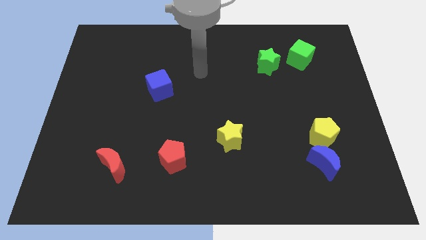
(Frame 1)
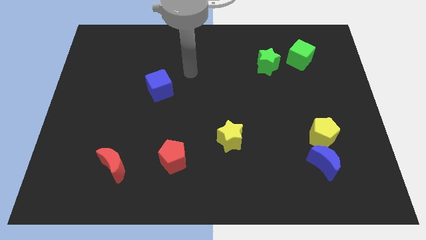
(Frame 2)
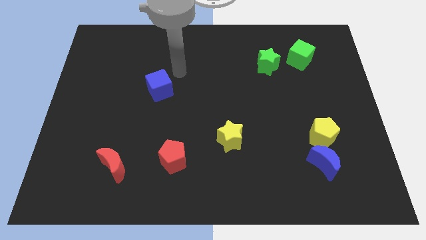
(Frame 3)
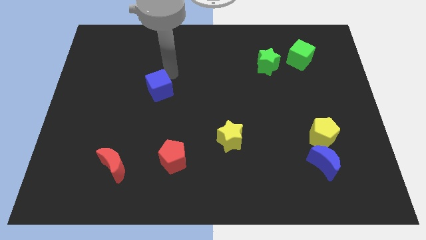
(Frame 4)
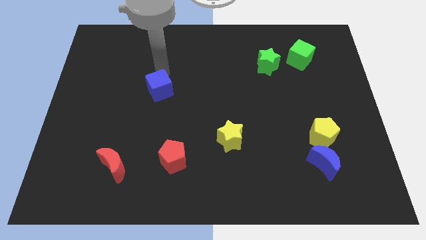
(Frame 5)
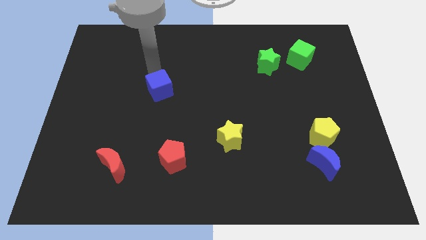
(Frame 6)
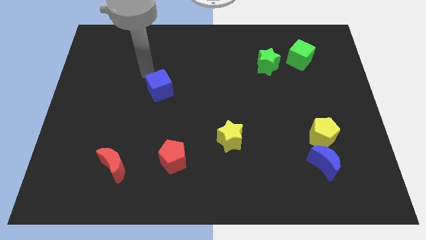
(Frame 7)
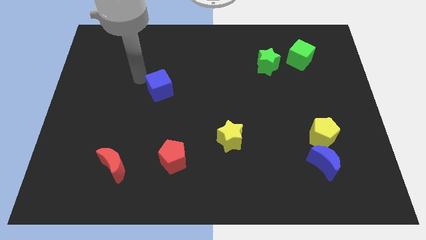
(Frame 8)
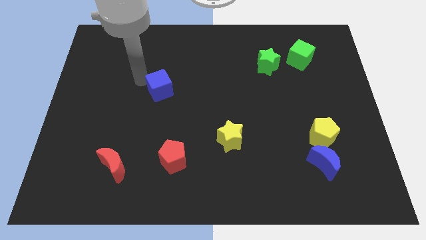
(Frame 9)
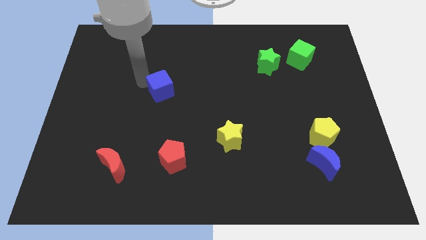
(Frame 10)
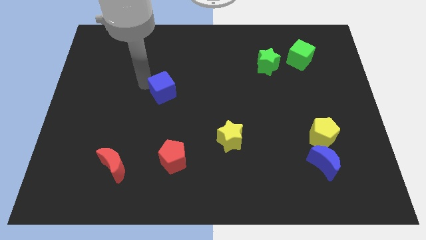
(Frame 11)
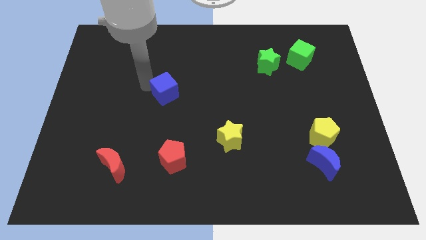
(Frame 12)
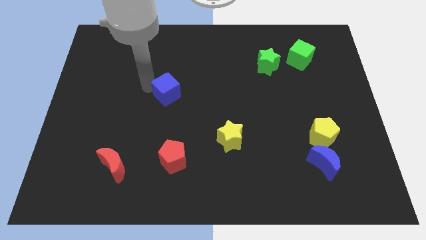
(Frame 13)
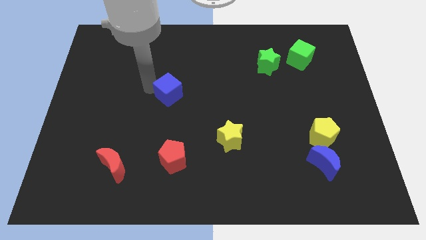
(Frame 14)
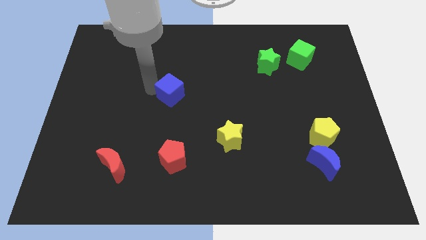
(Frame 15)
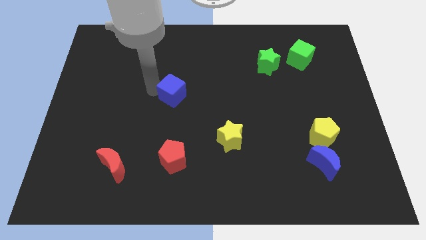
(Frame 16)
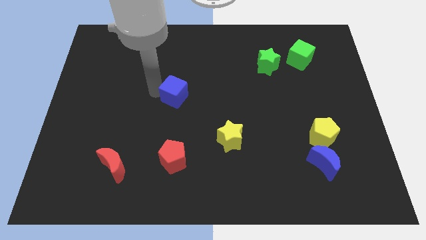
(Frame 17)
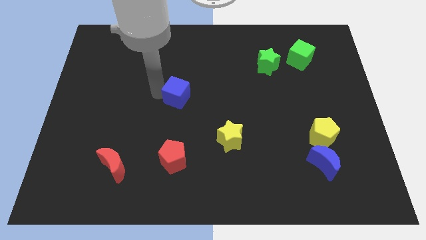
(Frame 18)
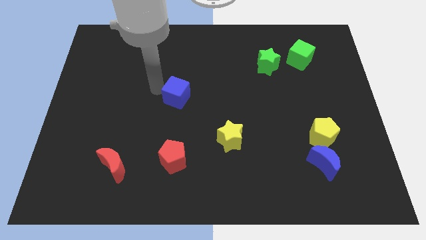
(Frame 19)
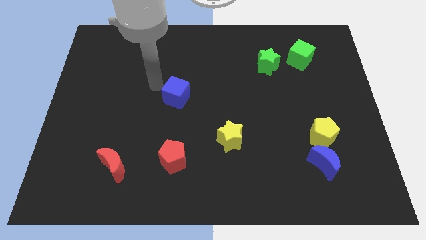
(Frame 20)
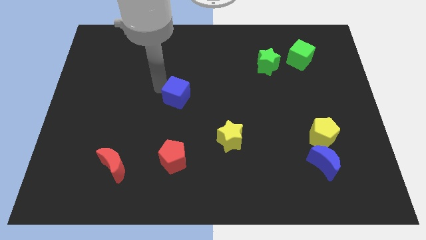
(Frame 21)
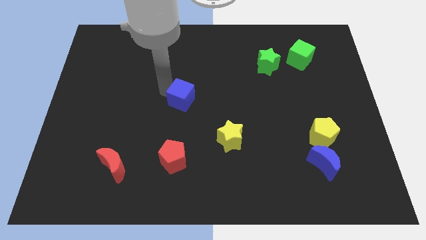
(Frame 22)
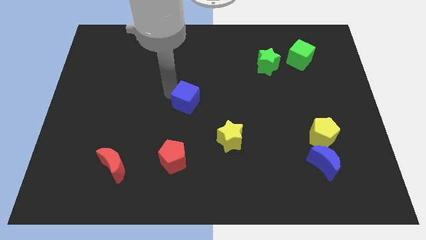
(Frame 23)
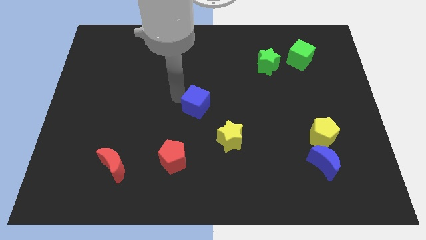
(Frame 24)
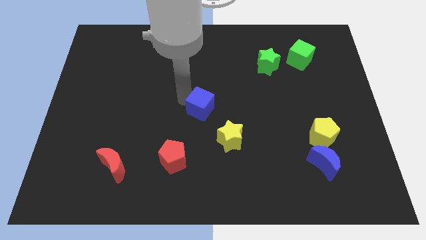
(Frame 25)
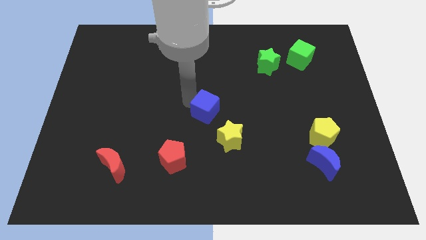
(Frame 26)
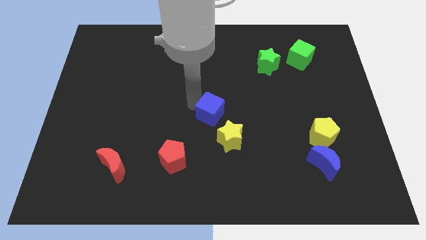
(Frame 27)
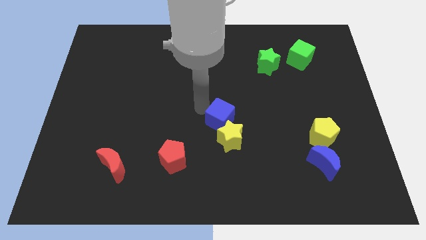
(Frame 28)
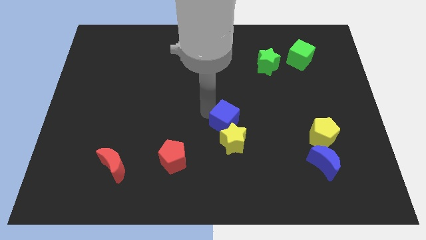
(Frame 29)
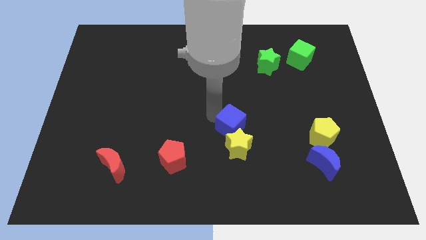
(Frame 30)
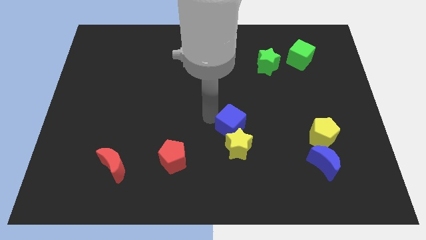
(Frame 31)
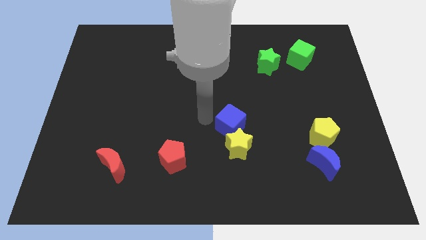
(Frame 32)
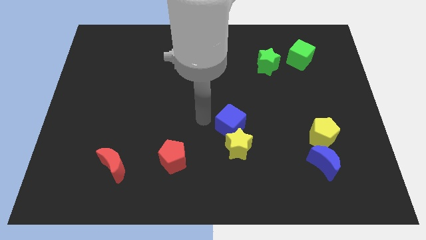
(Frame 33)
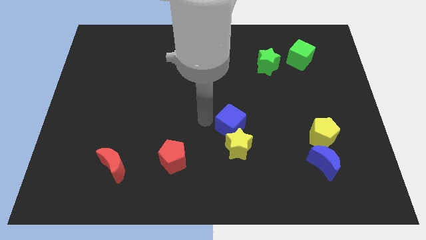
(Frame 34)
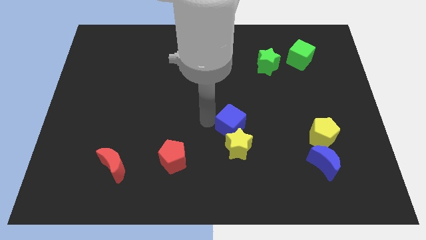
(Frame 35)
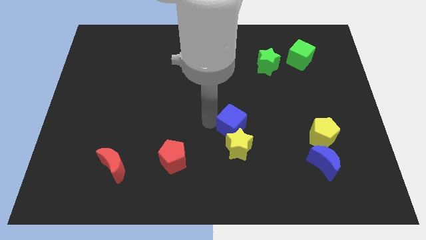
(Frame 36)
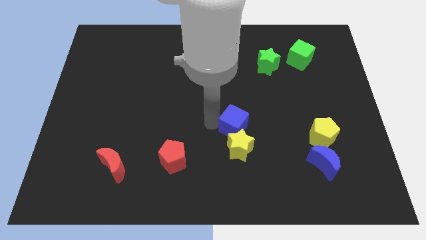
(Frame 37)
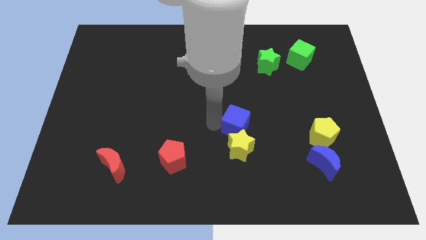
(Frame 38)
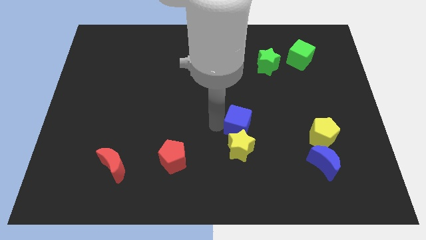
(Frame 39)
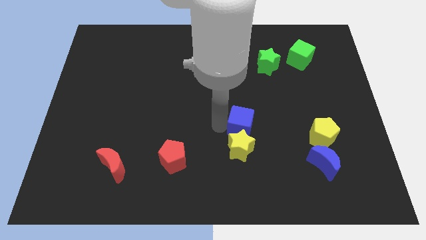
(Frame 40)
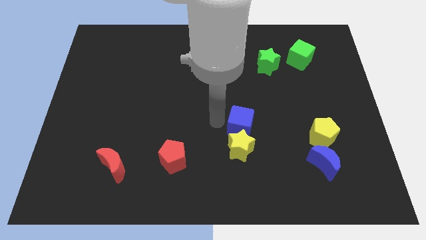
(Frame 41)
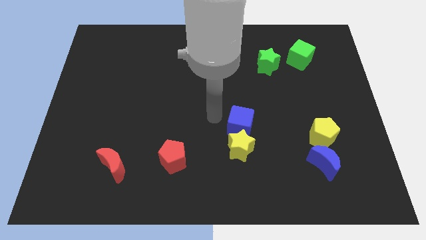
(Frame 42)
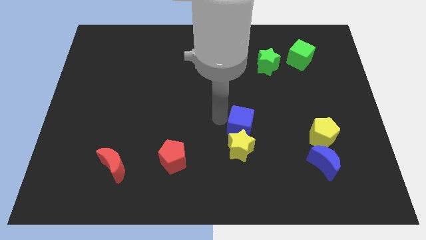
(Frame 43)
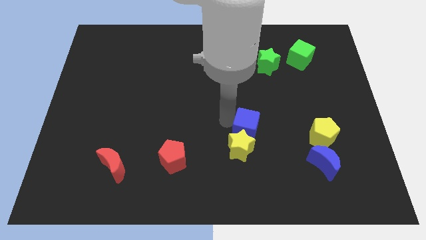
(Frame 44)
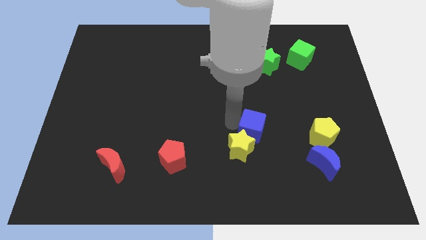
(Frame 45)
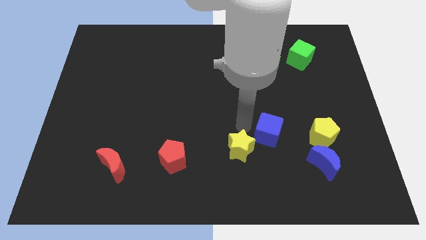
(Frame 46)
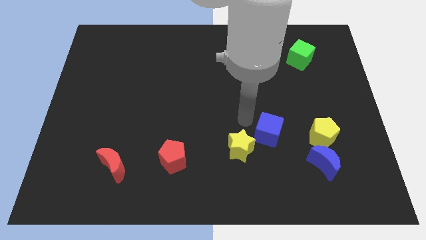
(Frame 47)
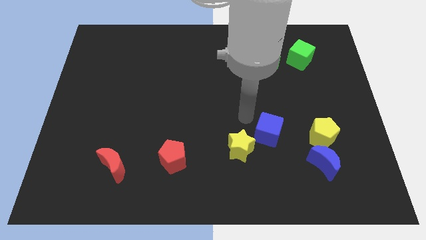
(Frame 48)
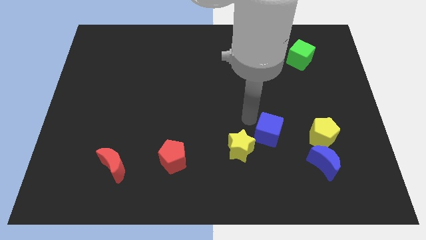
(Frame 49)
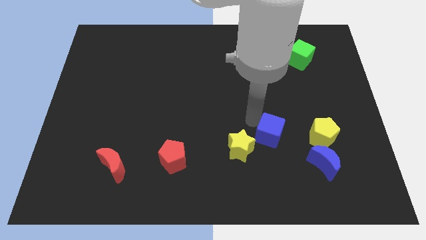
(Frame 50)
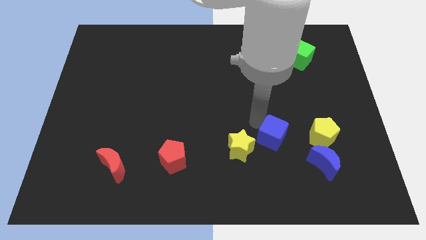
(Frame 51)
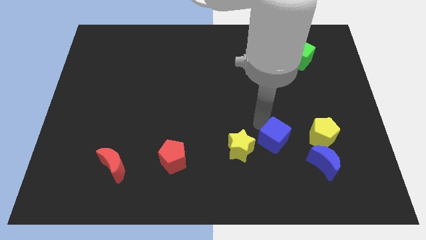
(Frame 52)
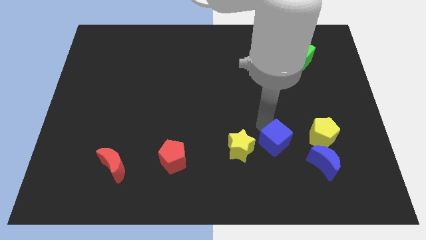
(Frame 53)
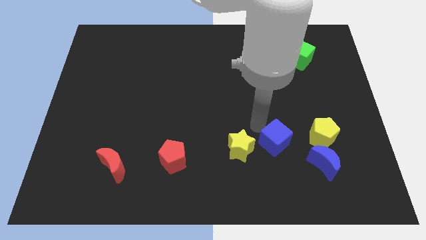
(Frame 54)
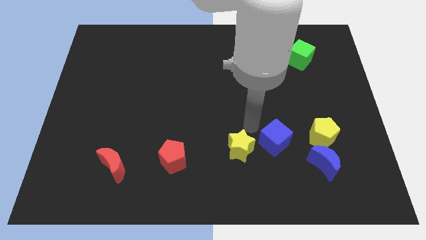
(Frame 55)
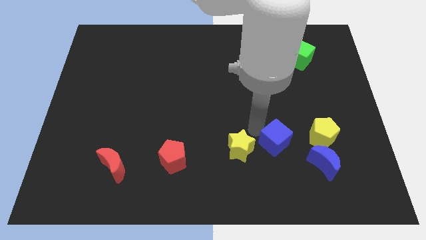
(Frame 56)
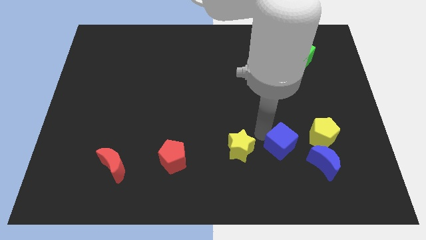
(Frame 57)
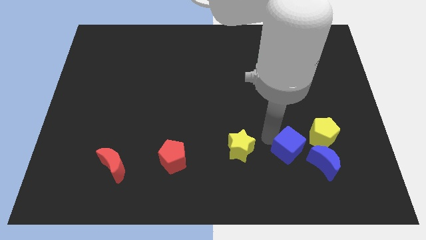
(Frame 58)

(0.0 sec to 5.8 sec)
slide the blue cube diagonally down and to the left of the yellow pentagon

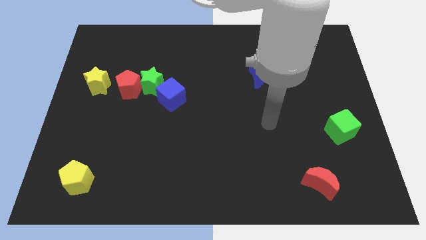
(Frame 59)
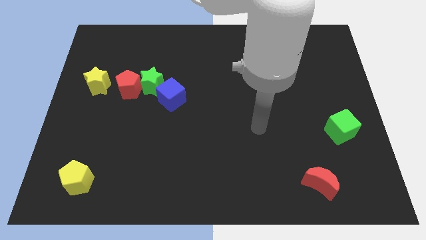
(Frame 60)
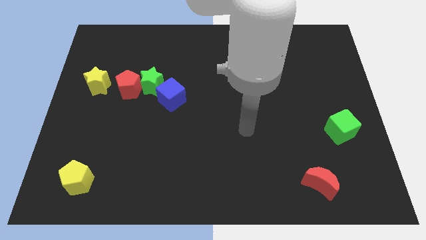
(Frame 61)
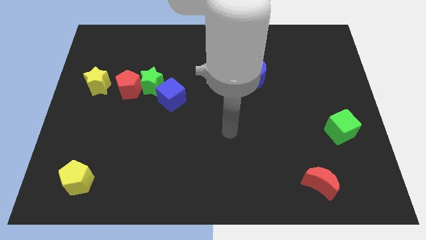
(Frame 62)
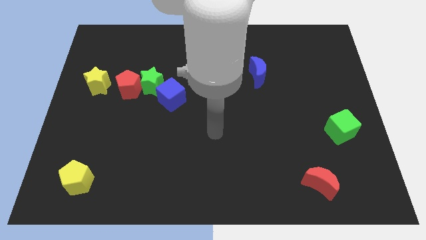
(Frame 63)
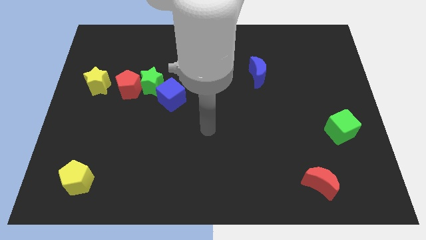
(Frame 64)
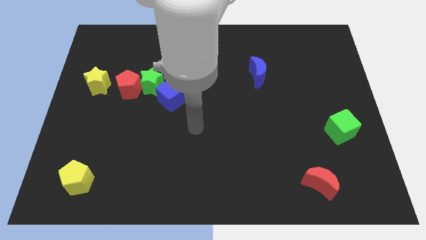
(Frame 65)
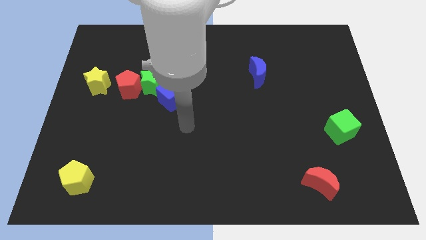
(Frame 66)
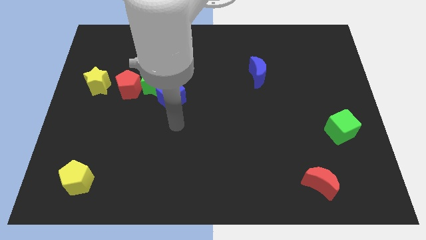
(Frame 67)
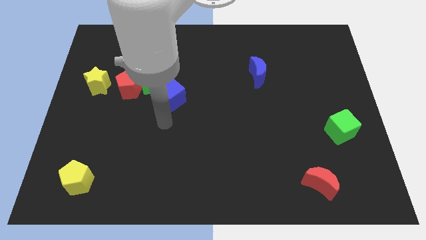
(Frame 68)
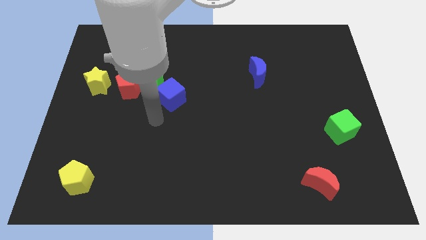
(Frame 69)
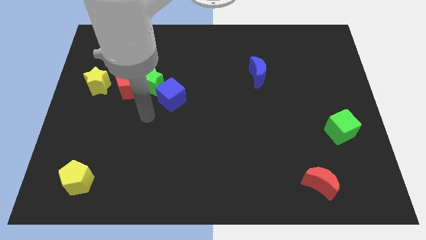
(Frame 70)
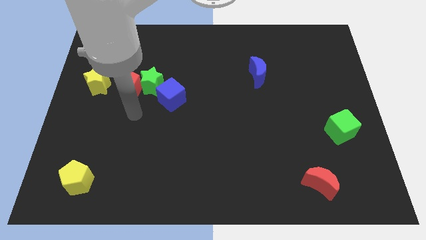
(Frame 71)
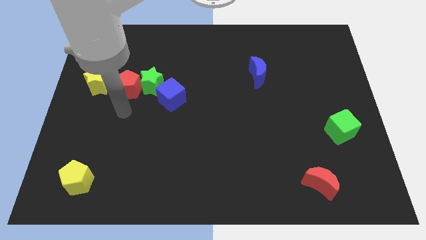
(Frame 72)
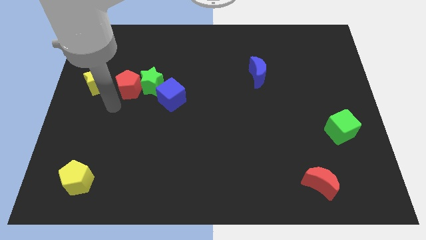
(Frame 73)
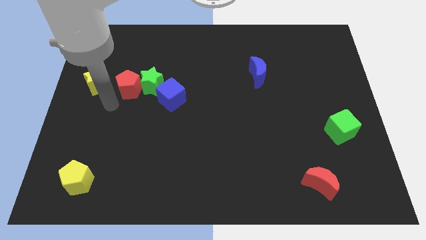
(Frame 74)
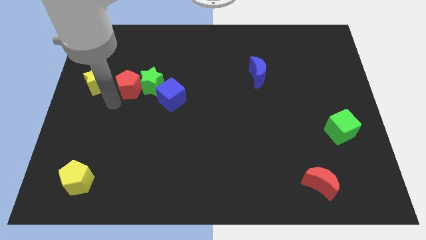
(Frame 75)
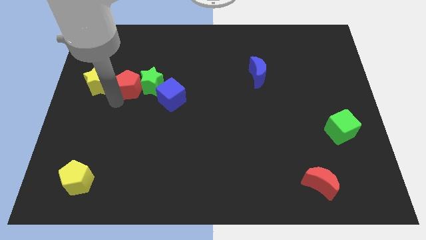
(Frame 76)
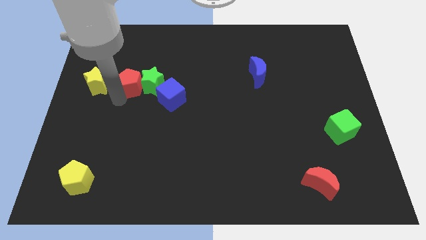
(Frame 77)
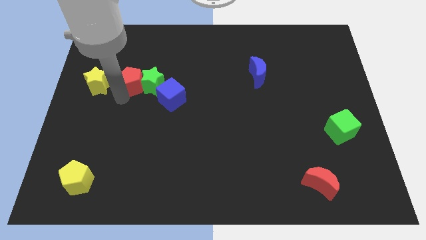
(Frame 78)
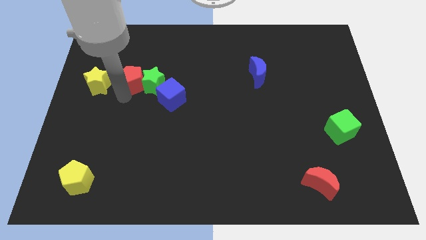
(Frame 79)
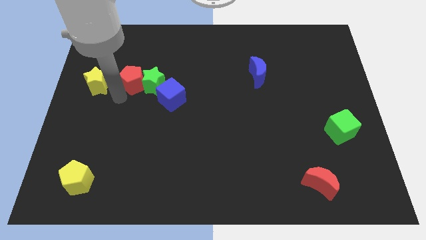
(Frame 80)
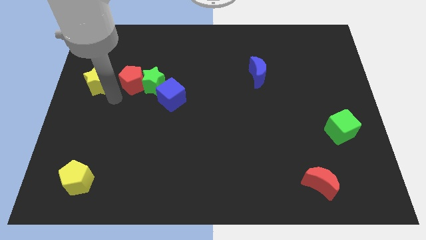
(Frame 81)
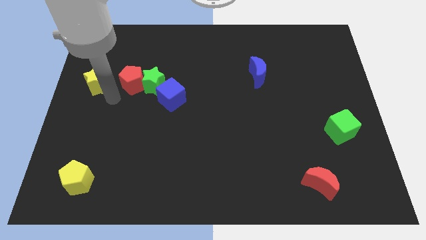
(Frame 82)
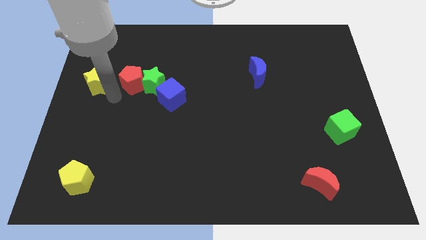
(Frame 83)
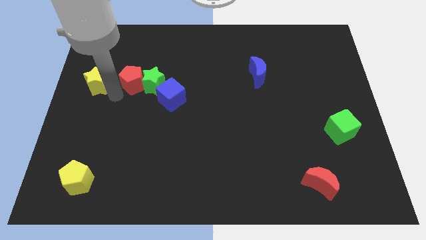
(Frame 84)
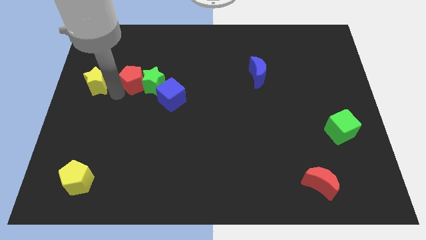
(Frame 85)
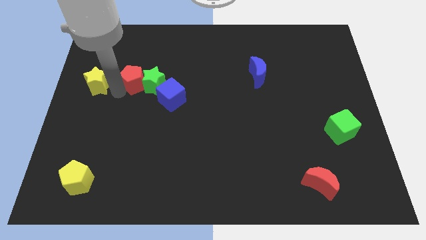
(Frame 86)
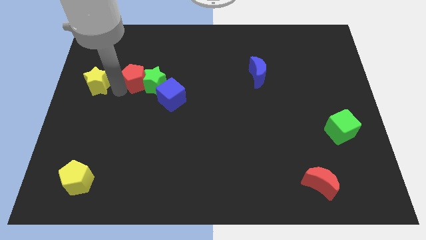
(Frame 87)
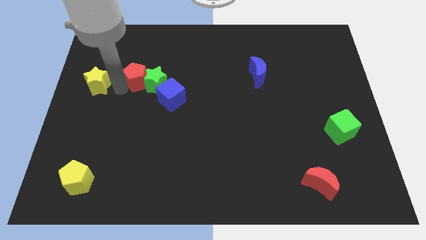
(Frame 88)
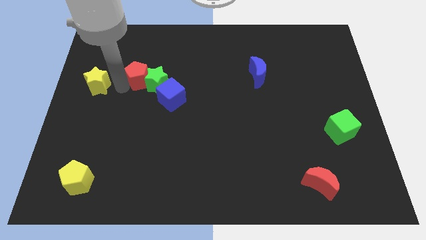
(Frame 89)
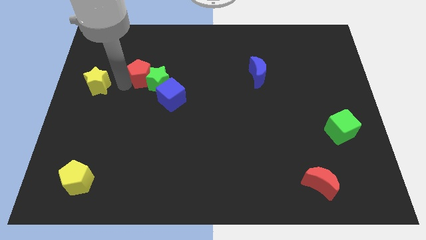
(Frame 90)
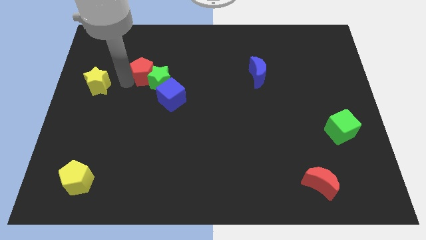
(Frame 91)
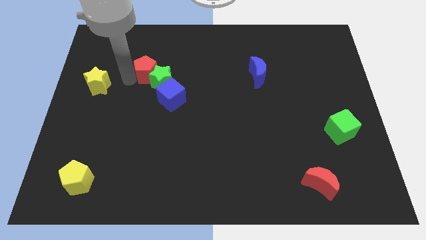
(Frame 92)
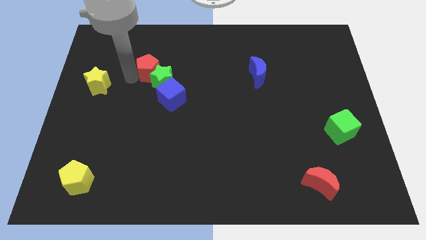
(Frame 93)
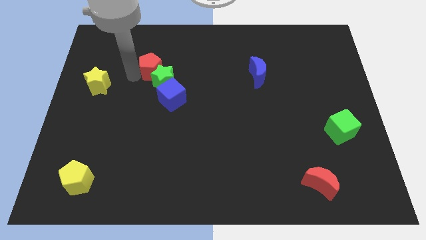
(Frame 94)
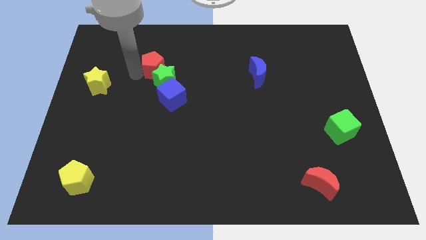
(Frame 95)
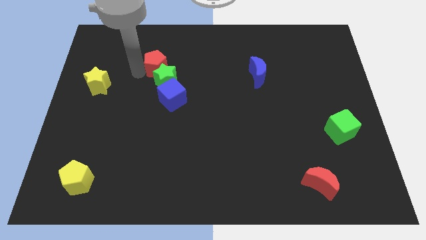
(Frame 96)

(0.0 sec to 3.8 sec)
push the red pentagon to the top side of the blue cube
